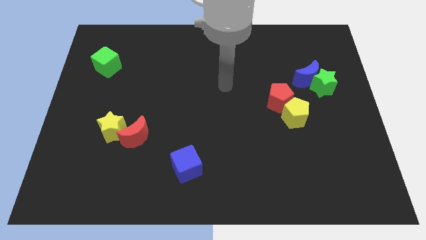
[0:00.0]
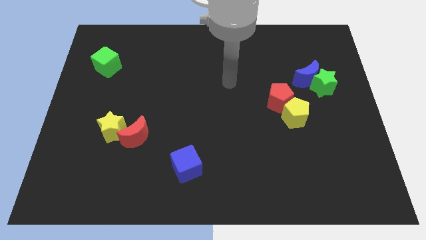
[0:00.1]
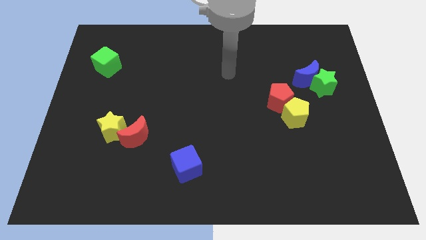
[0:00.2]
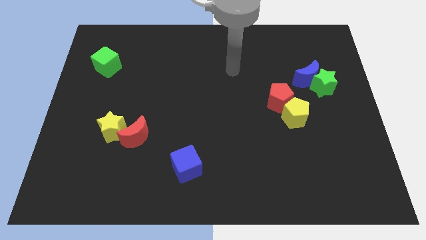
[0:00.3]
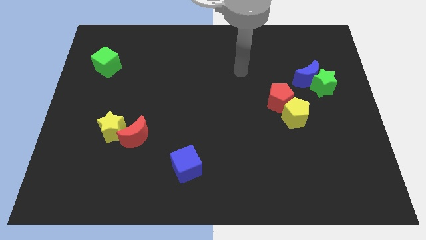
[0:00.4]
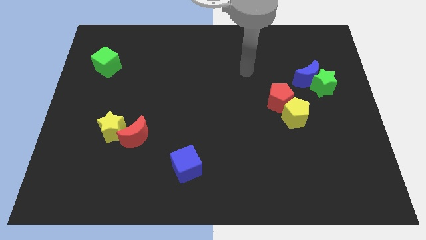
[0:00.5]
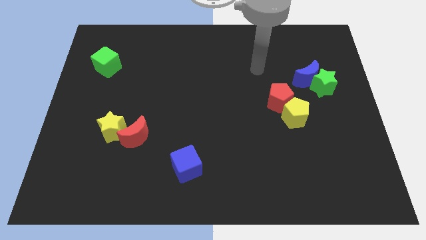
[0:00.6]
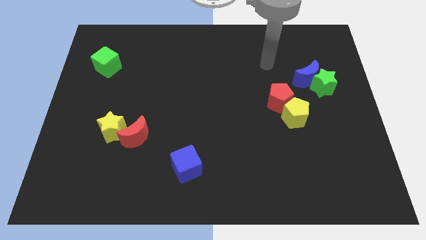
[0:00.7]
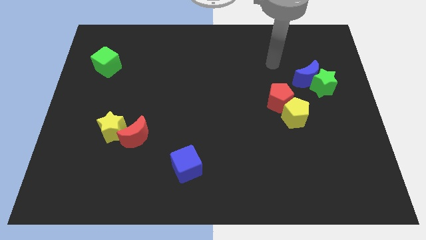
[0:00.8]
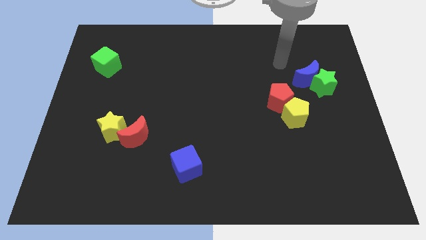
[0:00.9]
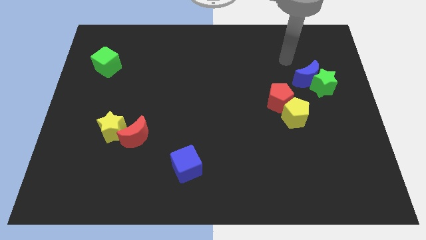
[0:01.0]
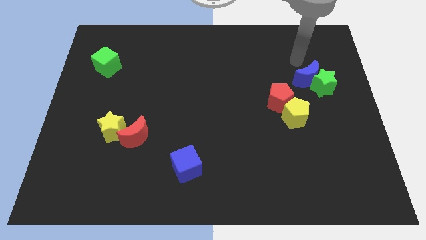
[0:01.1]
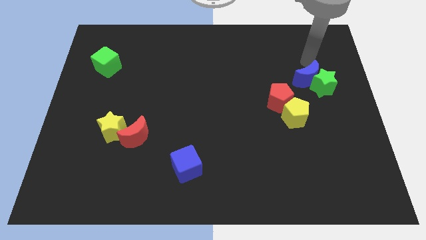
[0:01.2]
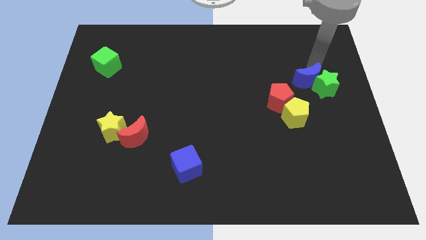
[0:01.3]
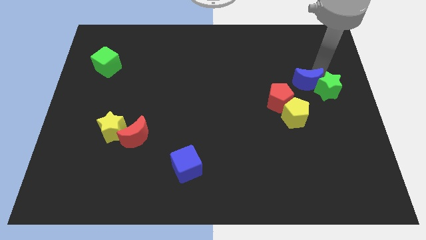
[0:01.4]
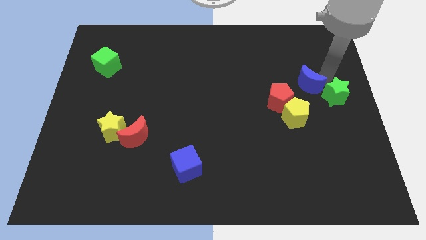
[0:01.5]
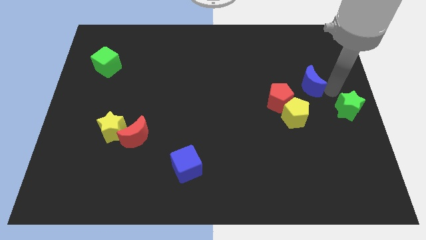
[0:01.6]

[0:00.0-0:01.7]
pull the blue moon apart from the green star

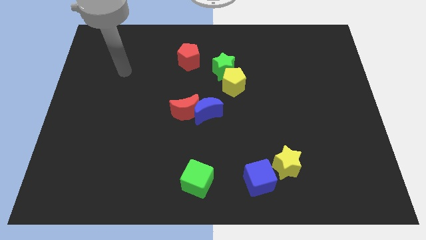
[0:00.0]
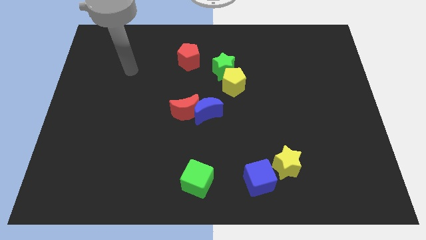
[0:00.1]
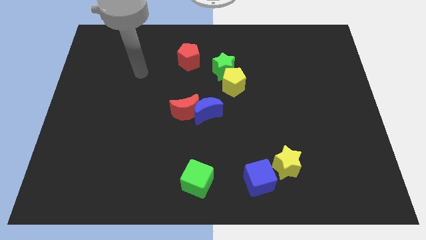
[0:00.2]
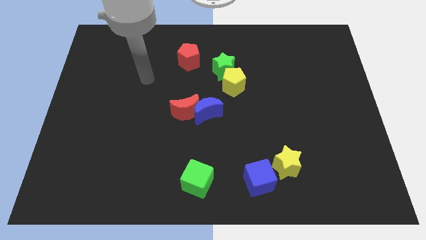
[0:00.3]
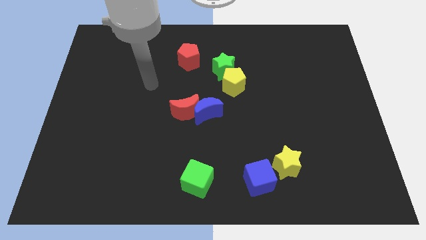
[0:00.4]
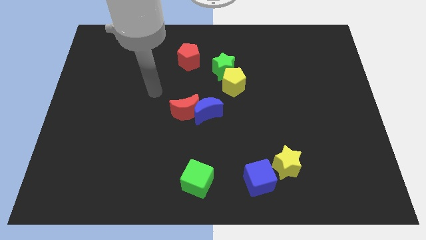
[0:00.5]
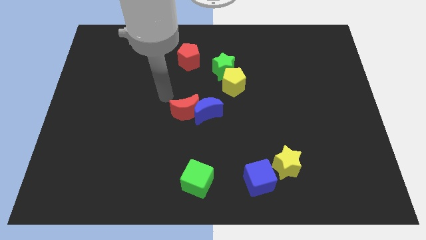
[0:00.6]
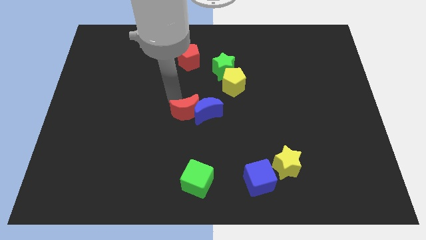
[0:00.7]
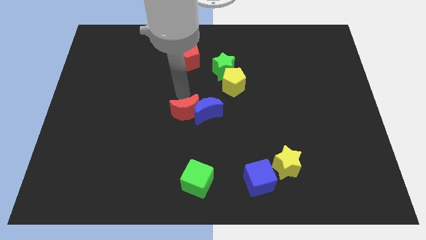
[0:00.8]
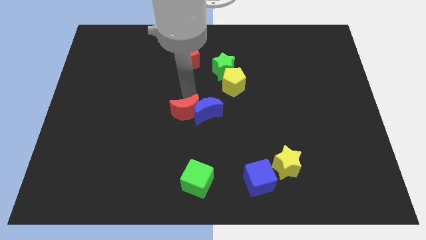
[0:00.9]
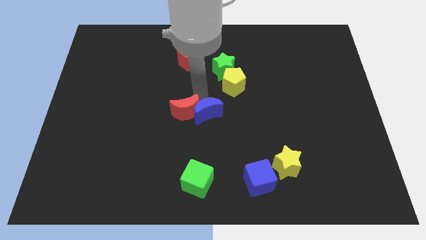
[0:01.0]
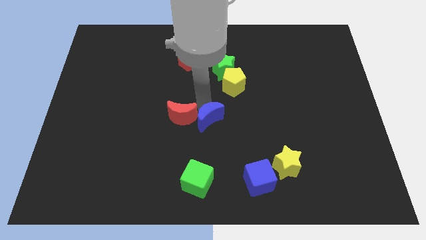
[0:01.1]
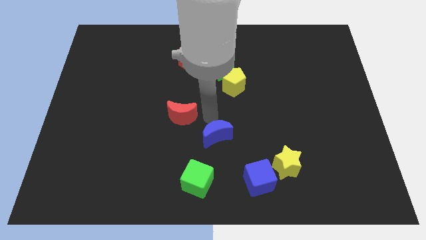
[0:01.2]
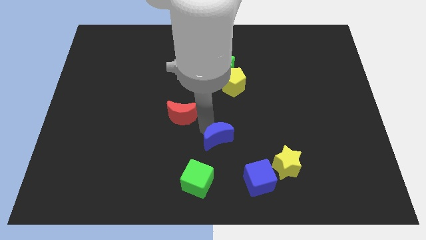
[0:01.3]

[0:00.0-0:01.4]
separate the red moon from the blue moon

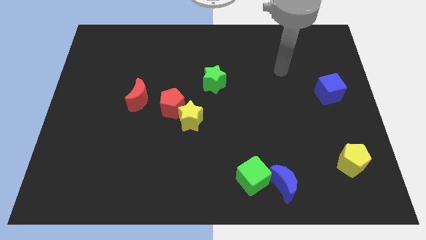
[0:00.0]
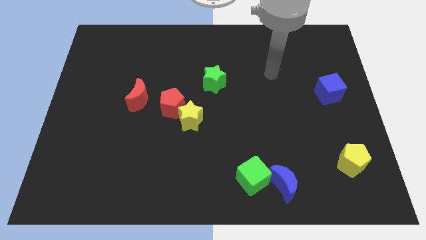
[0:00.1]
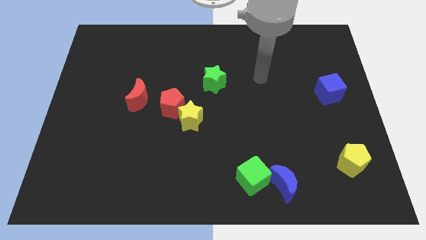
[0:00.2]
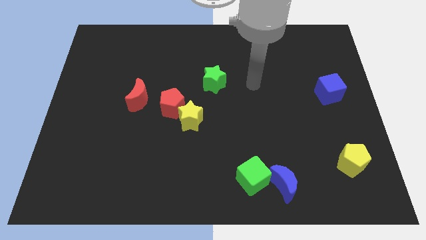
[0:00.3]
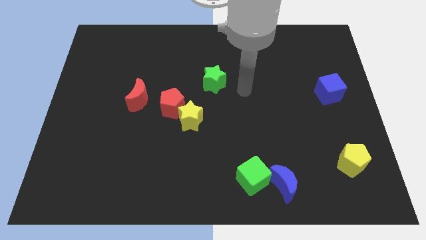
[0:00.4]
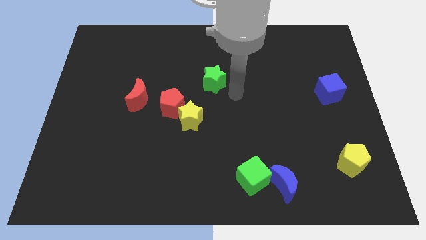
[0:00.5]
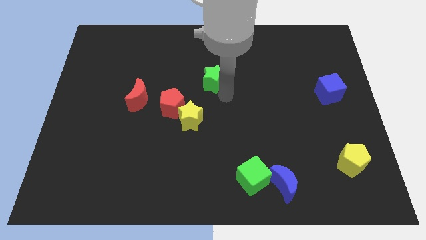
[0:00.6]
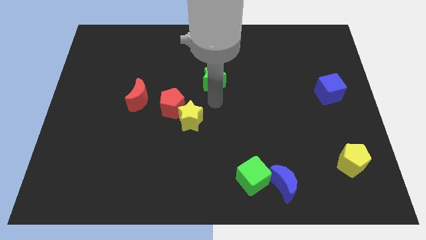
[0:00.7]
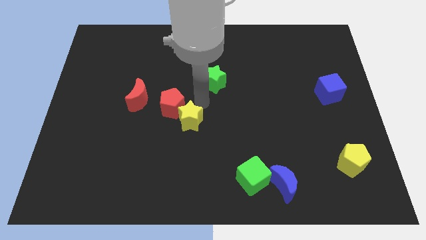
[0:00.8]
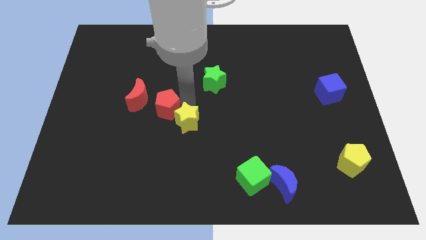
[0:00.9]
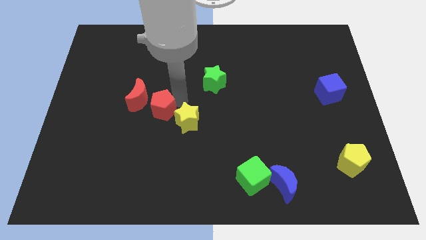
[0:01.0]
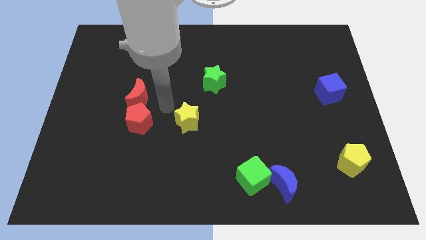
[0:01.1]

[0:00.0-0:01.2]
move the yellow star away from the red pentagon

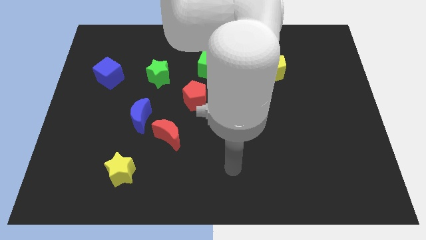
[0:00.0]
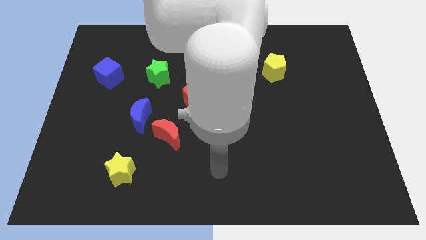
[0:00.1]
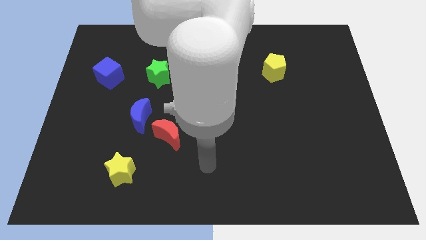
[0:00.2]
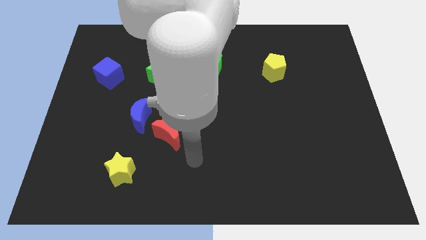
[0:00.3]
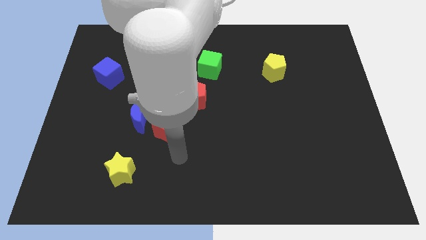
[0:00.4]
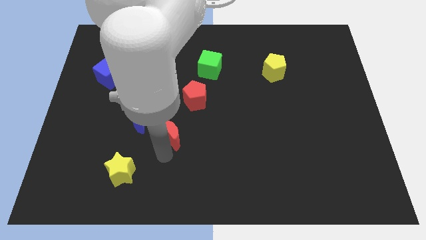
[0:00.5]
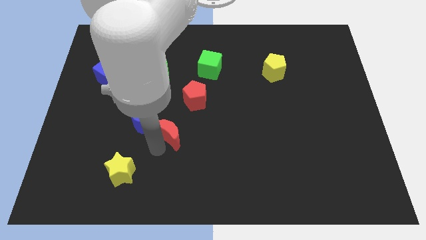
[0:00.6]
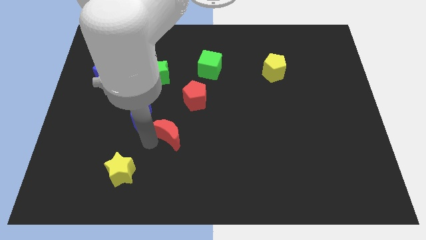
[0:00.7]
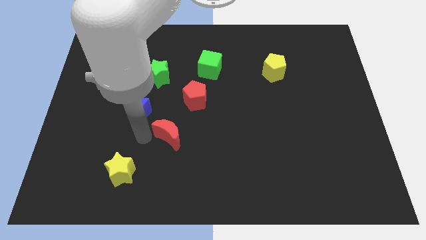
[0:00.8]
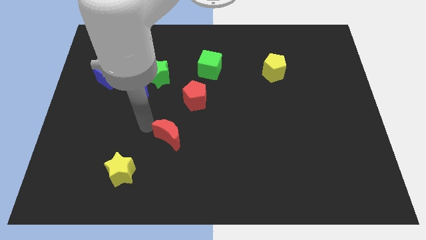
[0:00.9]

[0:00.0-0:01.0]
pull the red moon apart from the blue moon

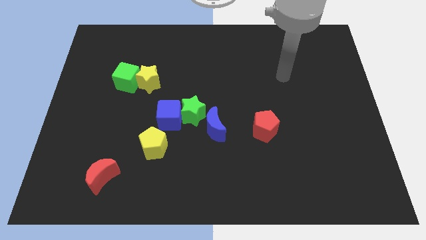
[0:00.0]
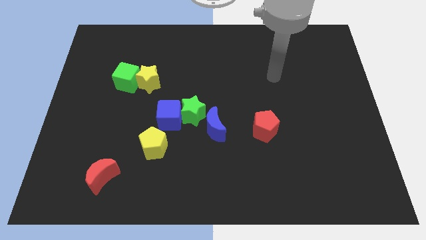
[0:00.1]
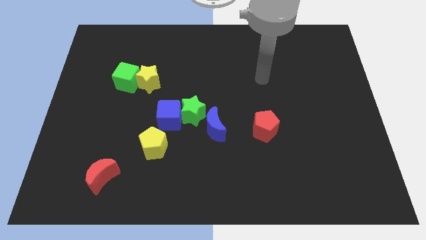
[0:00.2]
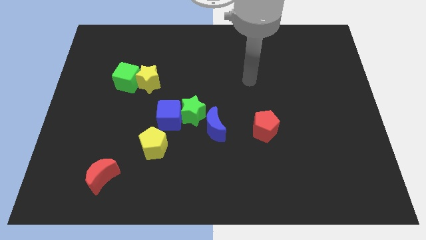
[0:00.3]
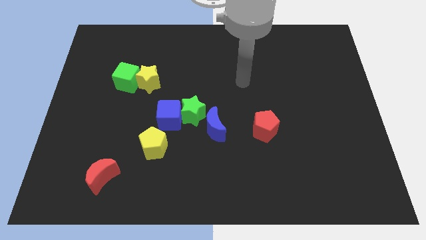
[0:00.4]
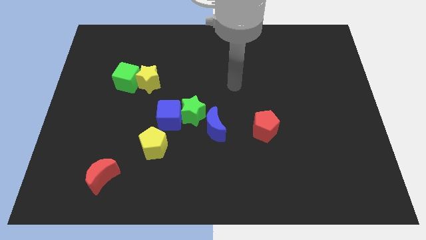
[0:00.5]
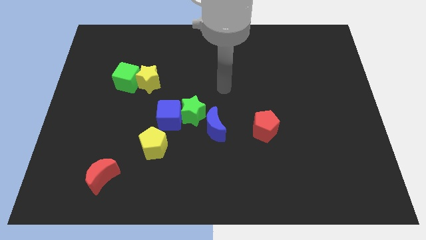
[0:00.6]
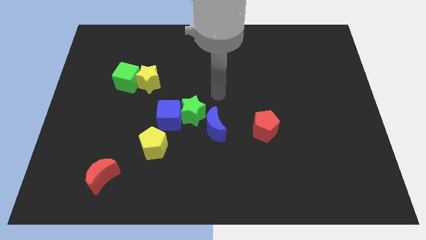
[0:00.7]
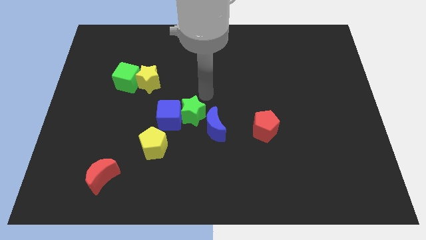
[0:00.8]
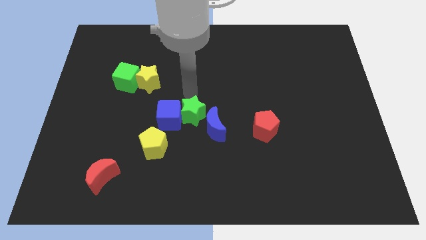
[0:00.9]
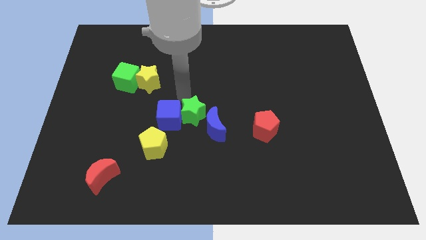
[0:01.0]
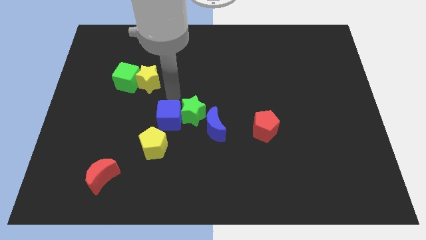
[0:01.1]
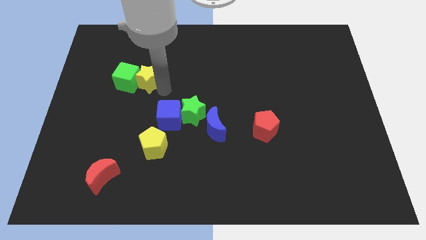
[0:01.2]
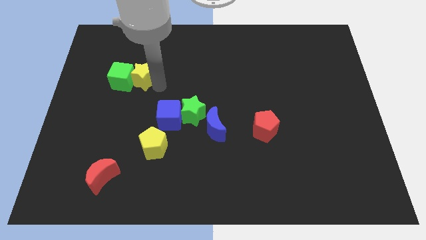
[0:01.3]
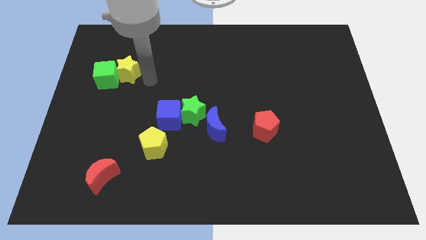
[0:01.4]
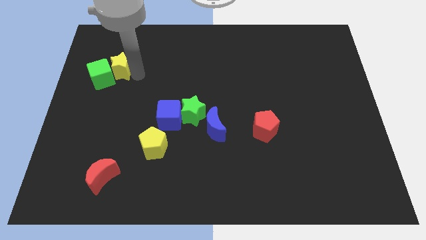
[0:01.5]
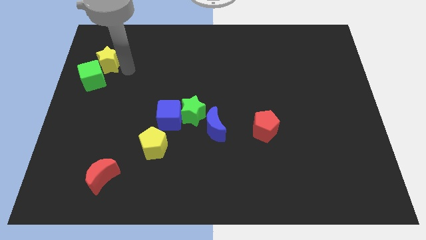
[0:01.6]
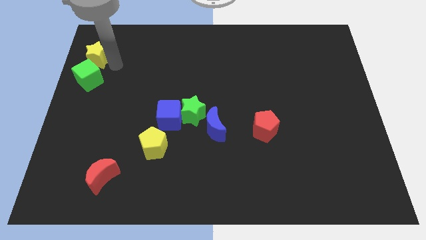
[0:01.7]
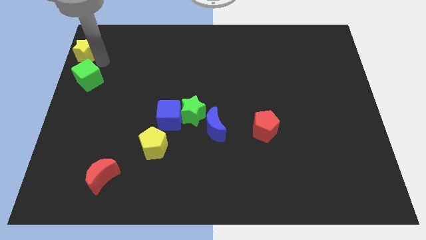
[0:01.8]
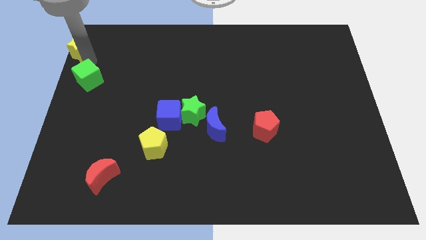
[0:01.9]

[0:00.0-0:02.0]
separate the green cube from the yellow star

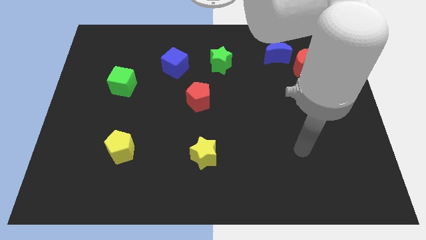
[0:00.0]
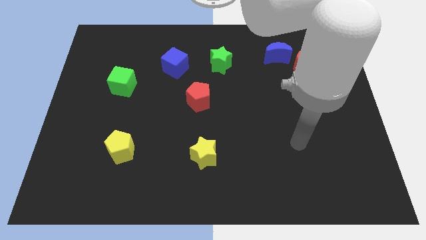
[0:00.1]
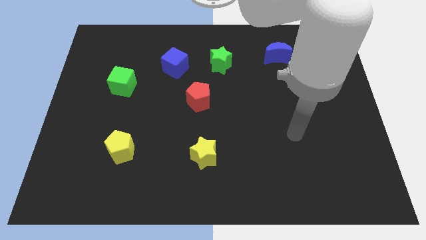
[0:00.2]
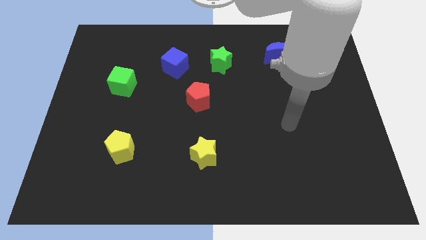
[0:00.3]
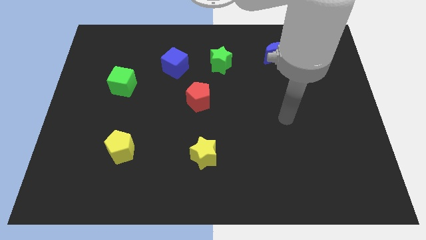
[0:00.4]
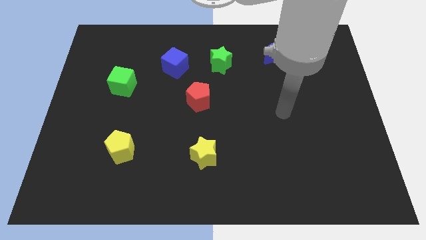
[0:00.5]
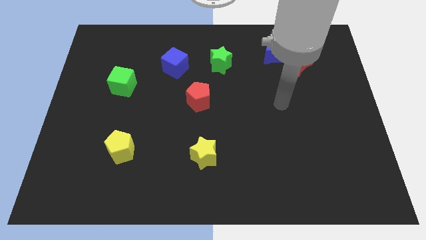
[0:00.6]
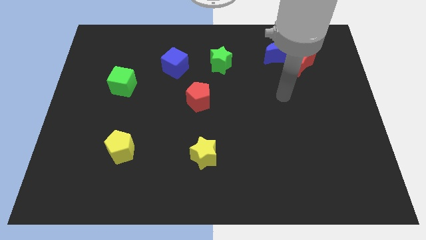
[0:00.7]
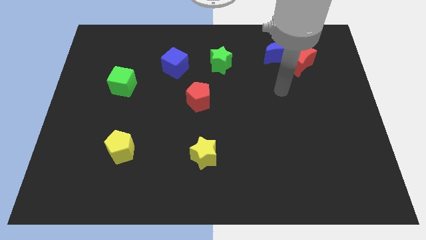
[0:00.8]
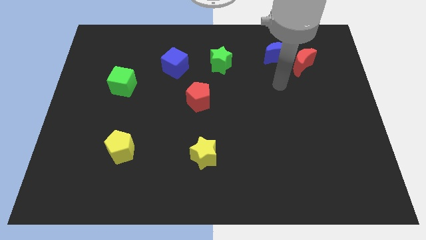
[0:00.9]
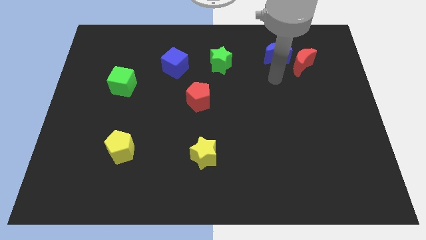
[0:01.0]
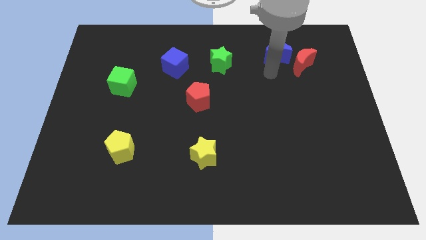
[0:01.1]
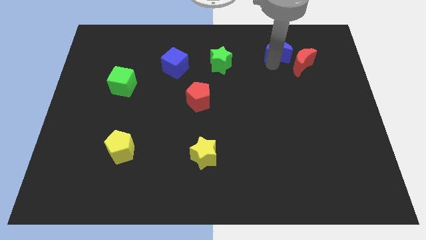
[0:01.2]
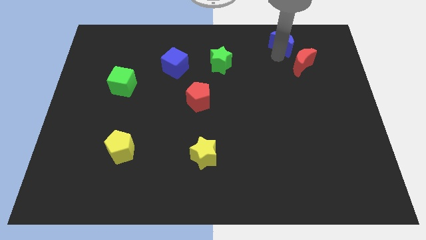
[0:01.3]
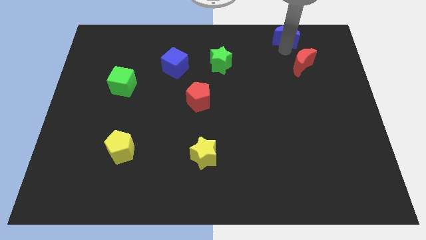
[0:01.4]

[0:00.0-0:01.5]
move the red moon away from the blue moon

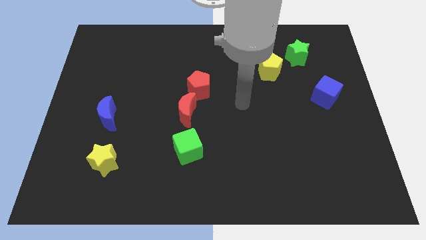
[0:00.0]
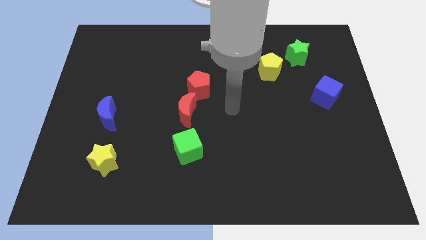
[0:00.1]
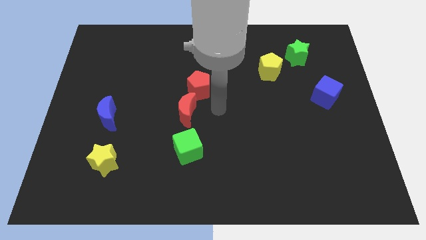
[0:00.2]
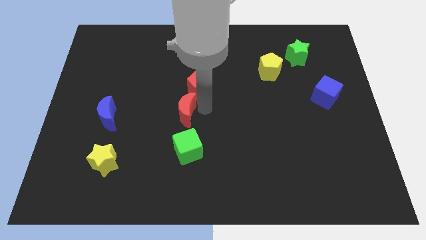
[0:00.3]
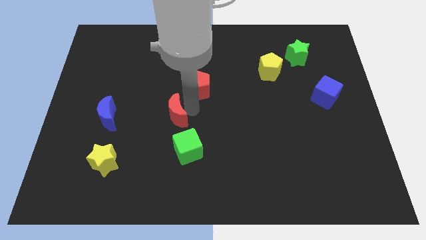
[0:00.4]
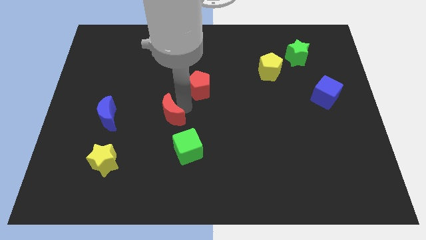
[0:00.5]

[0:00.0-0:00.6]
pull the red pentagon apart from the red moon

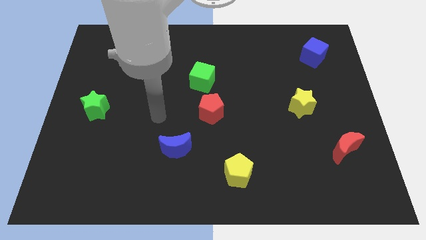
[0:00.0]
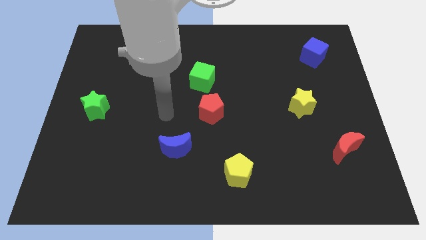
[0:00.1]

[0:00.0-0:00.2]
move the red pentagon away from the green cube
